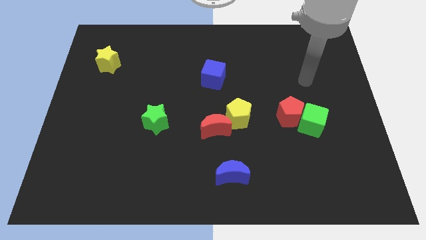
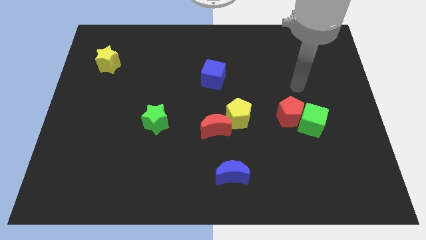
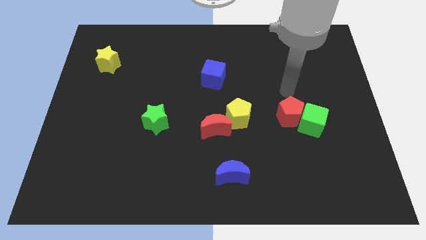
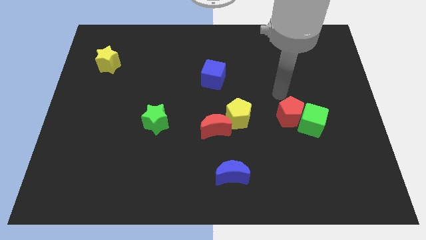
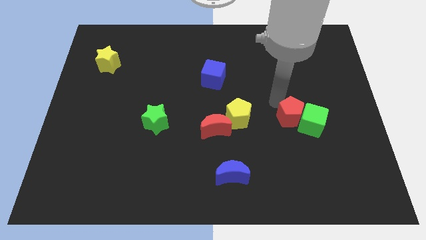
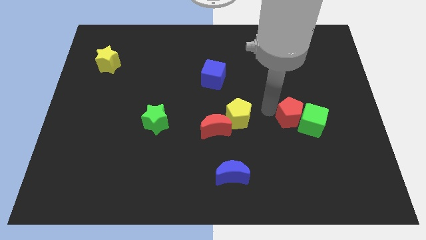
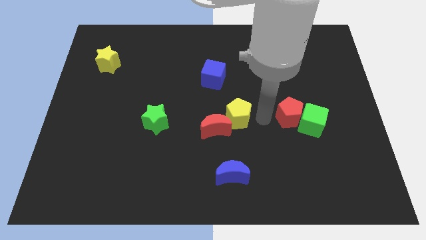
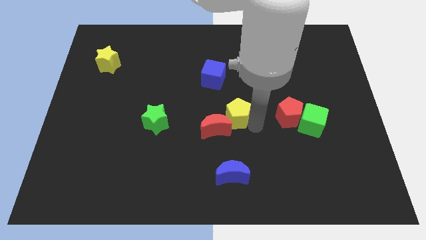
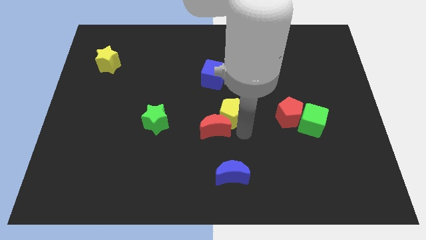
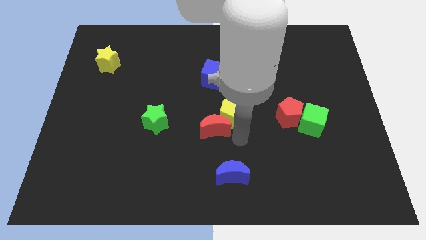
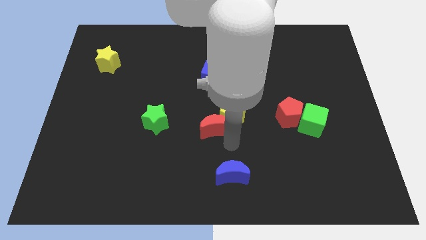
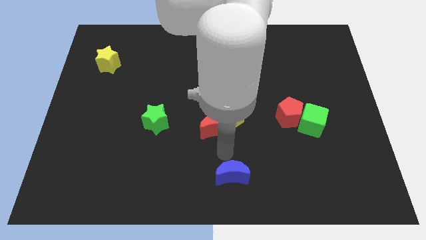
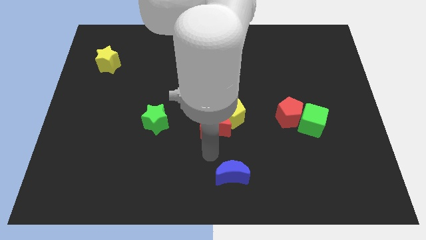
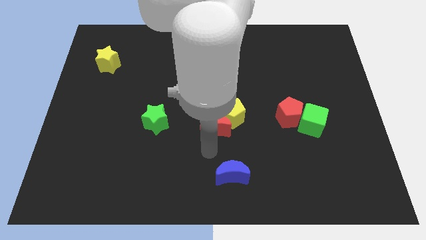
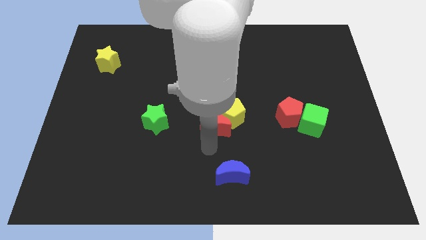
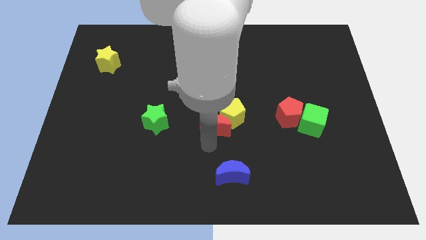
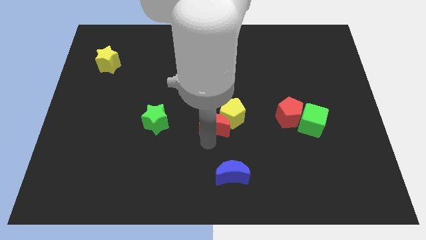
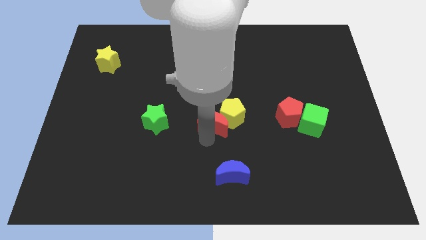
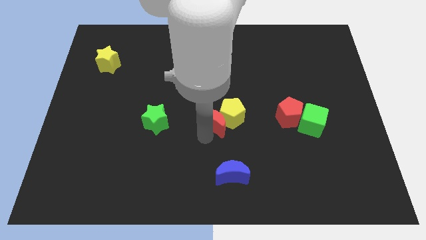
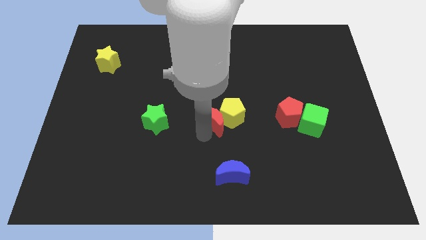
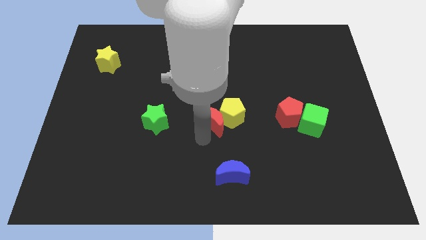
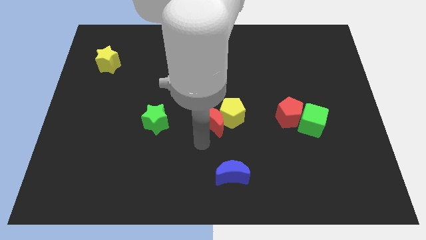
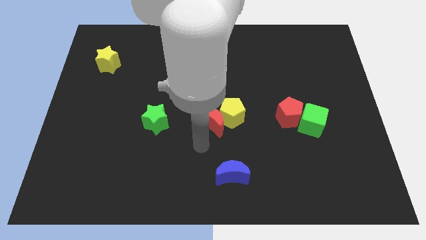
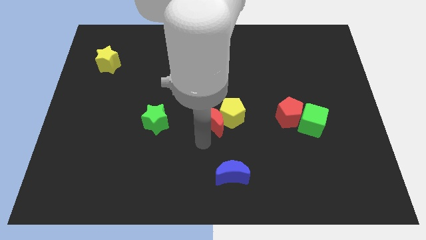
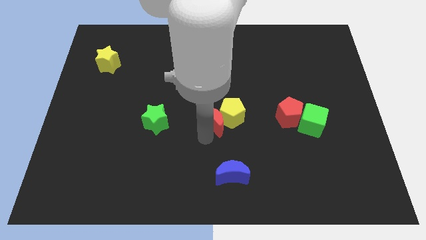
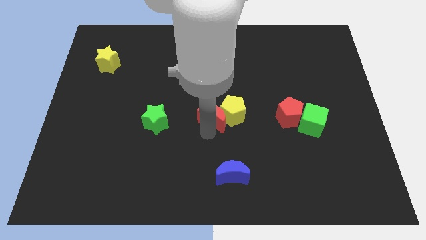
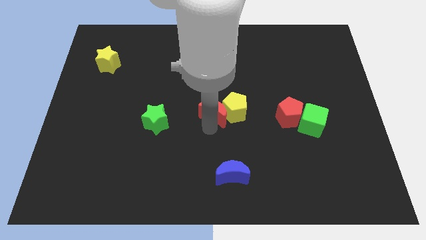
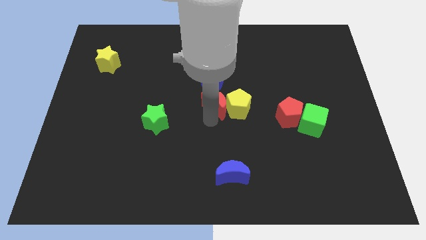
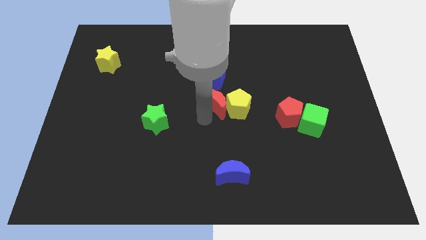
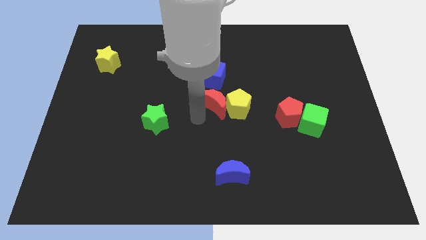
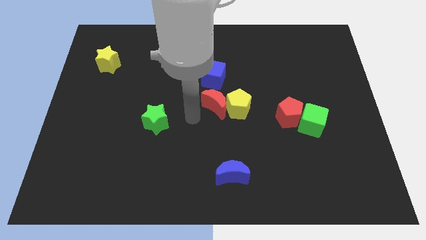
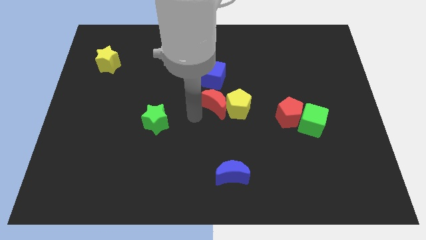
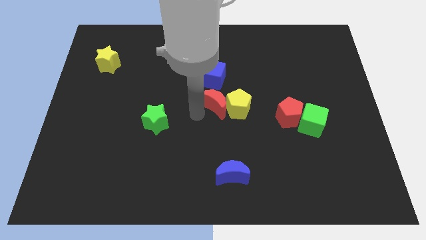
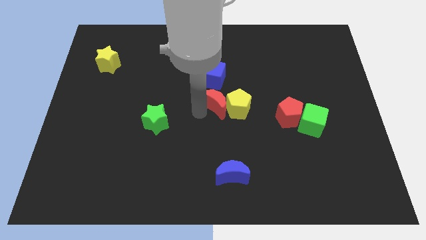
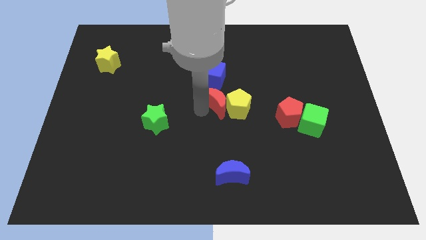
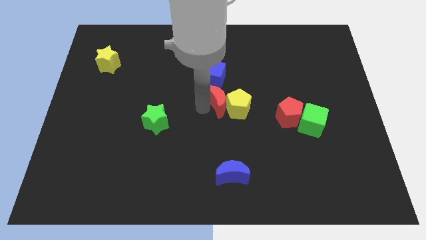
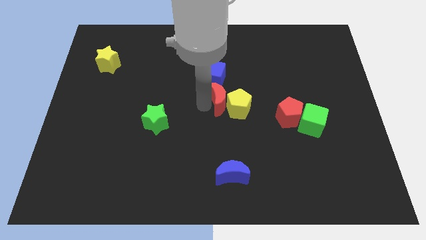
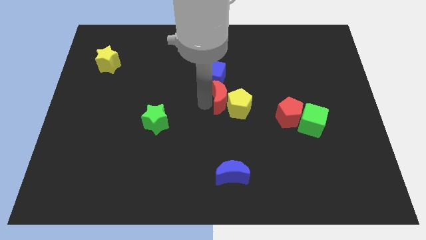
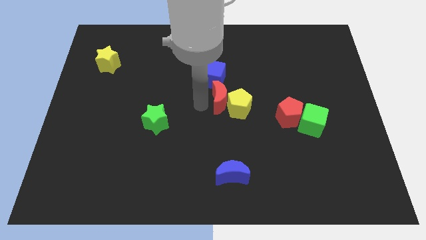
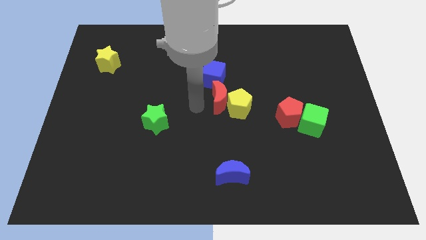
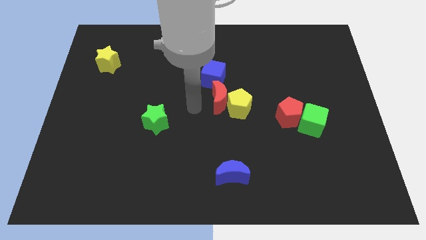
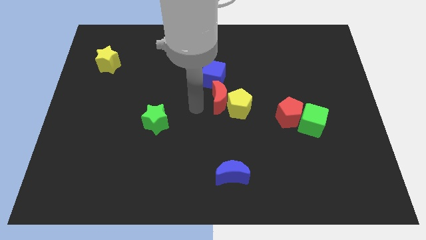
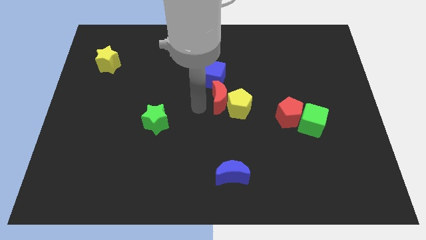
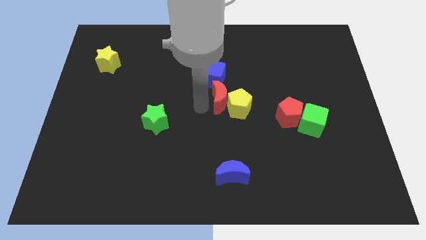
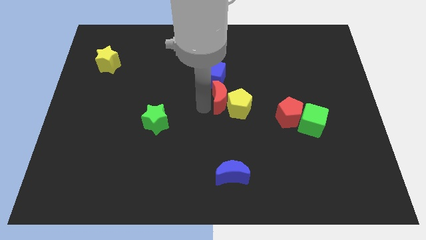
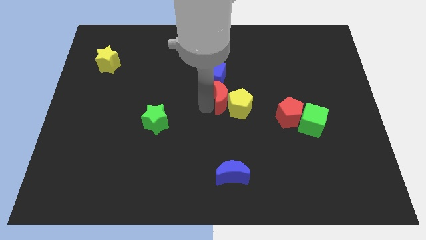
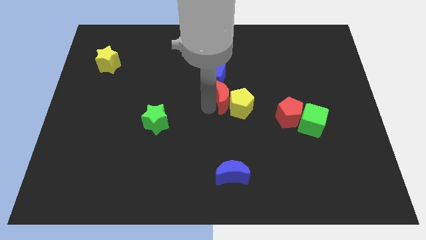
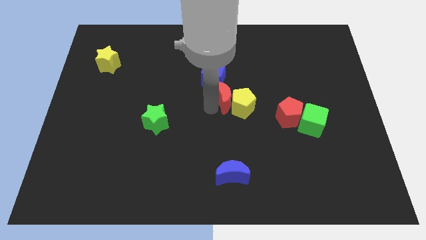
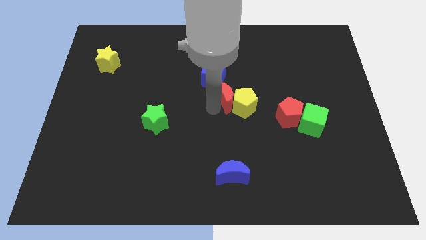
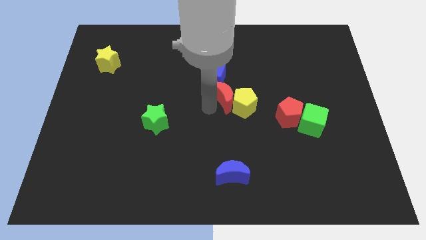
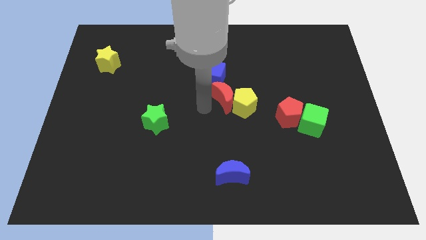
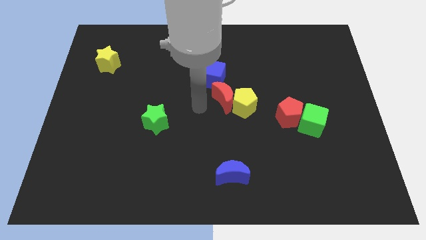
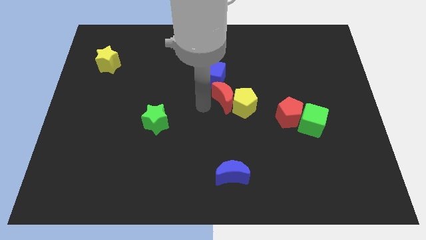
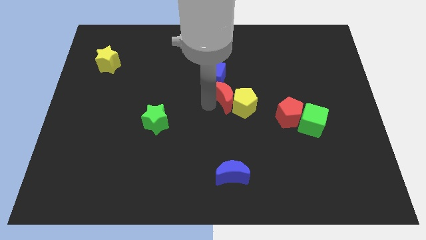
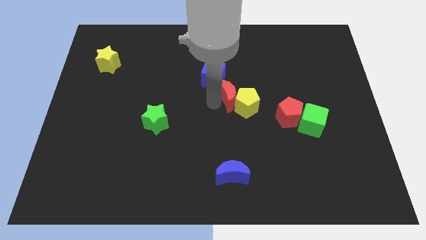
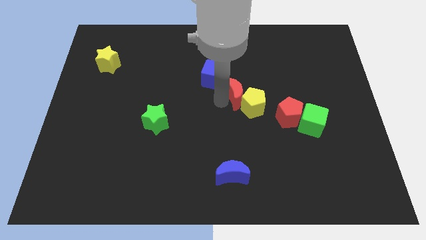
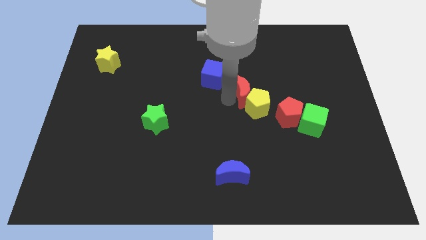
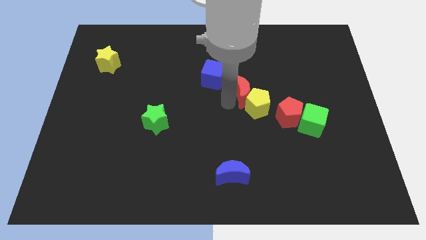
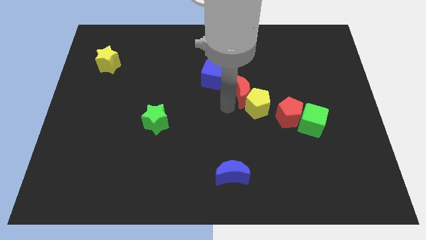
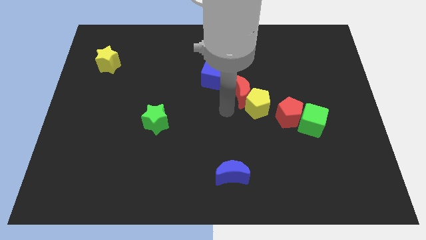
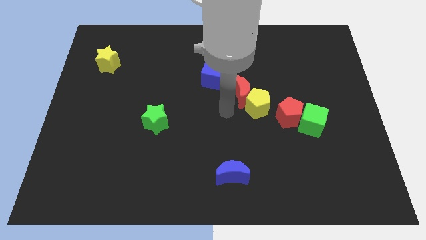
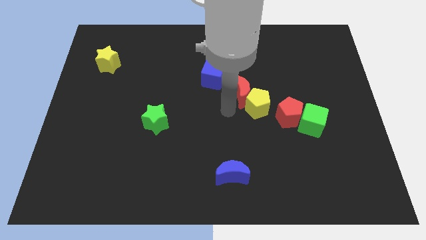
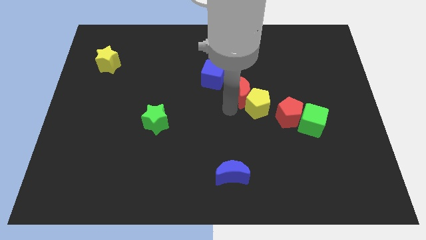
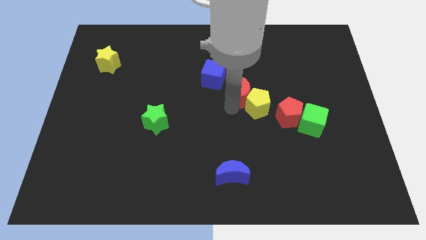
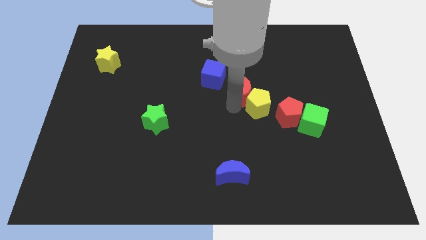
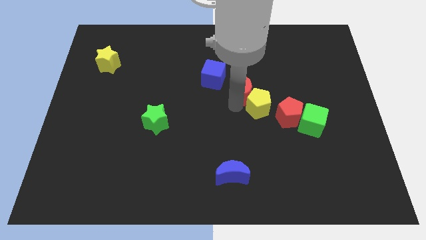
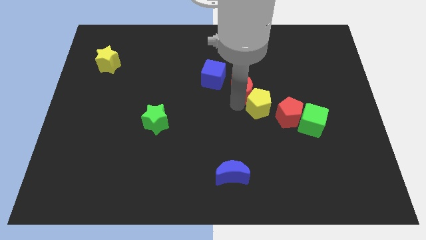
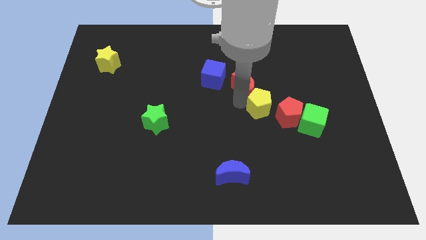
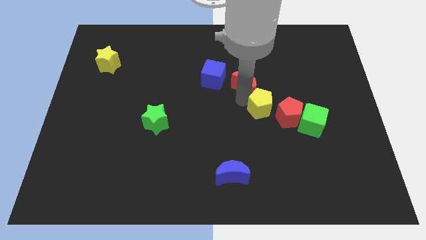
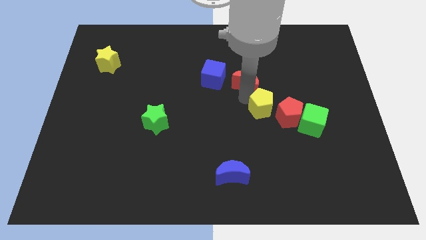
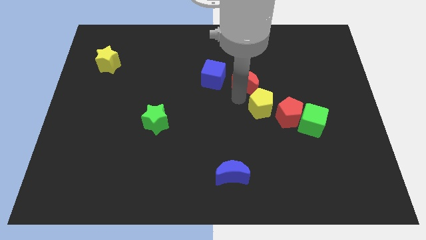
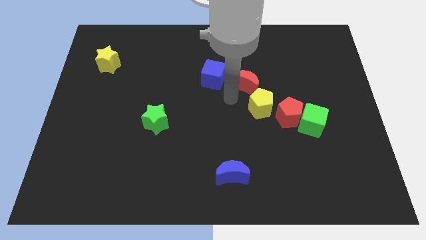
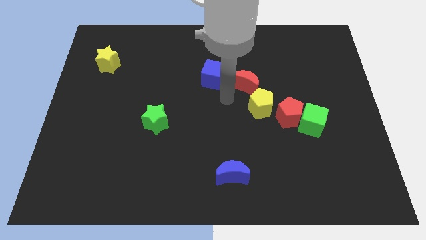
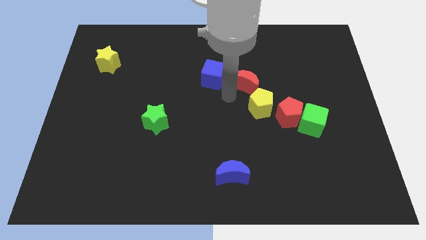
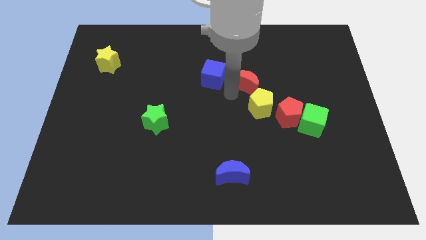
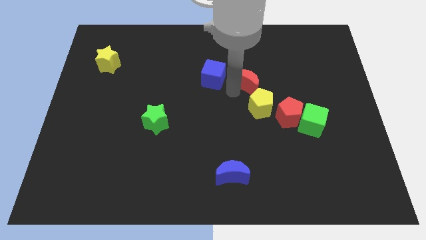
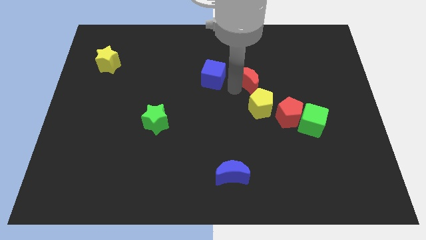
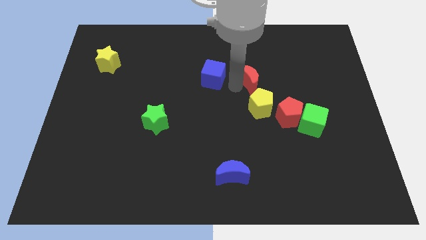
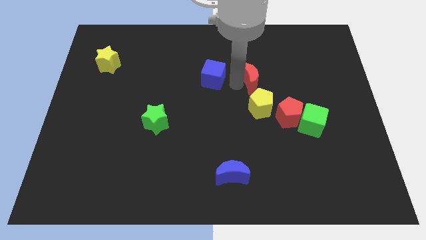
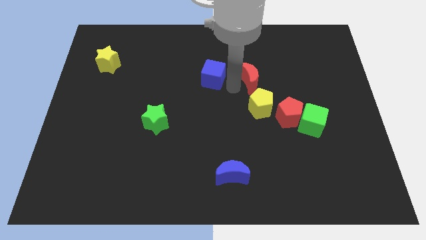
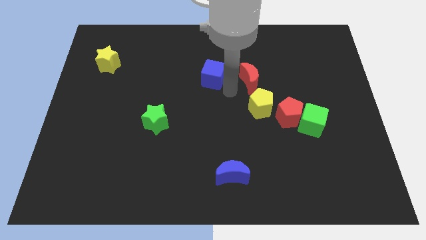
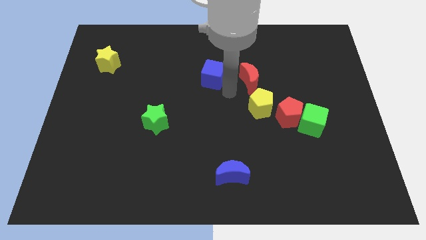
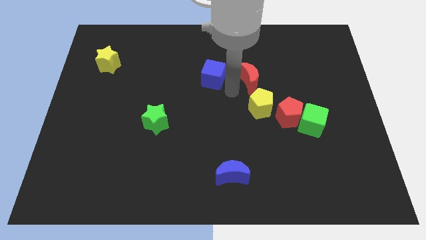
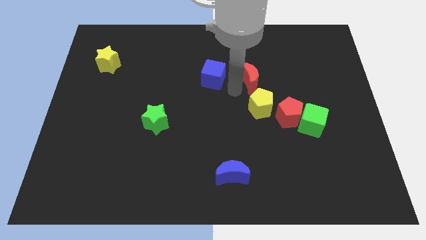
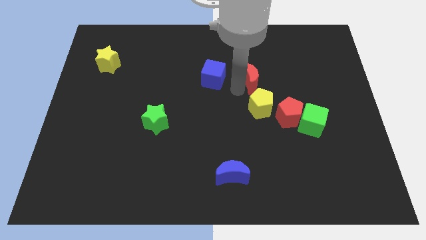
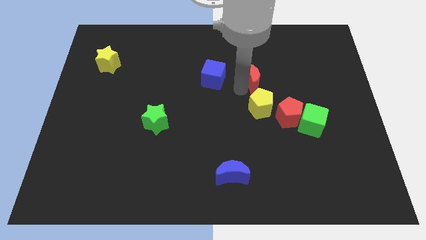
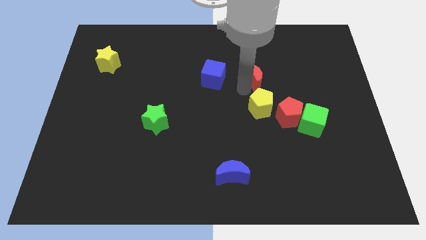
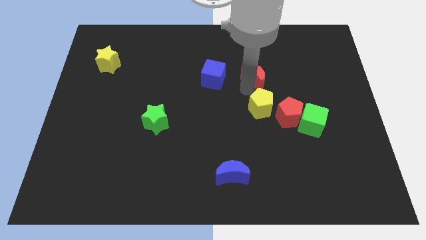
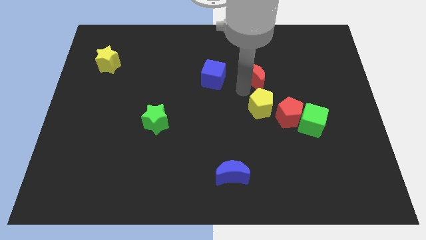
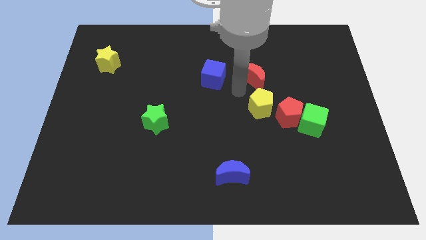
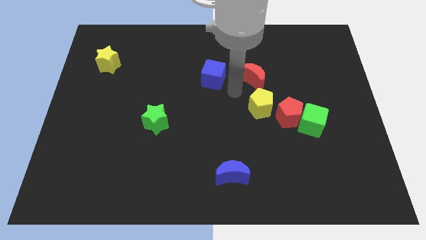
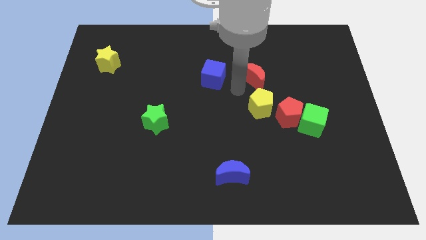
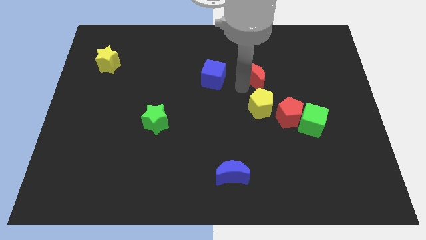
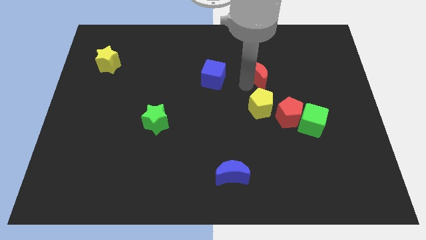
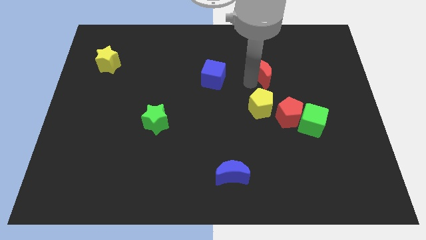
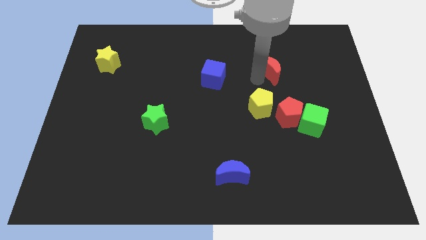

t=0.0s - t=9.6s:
slide the red moon upwards and then right
